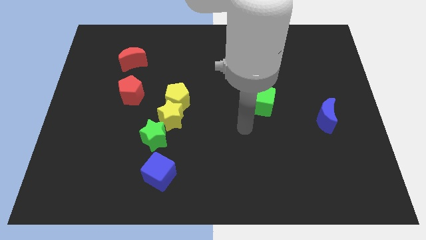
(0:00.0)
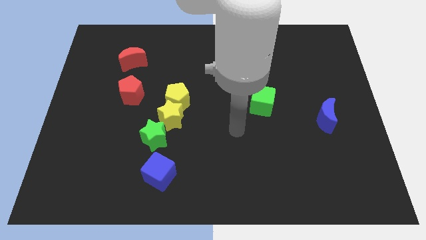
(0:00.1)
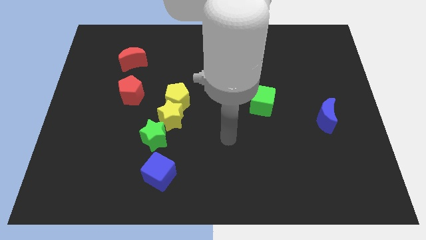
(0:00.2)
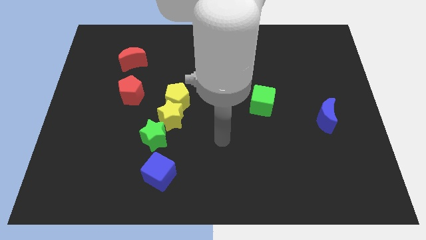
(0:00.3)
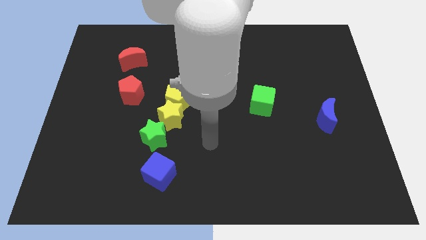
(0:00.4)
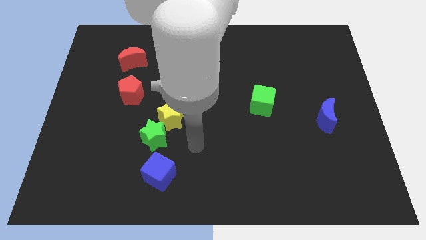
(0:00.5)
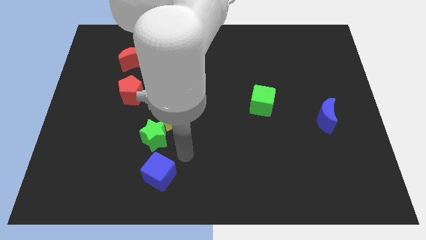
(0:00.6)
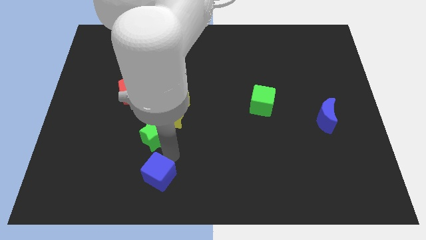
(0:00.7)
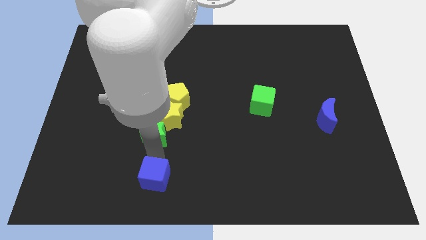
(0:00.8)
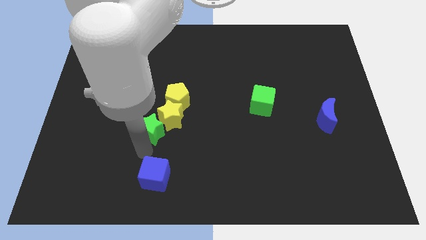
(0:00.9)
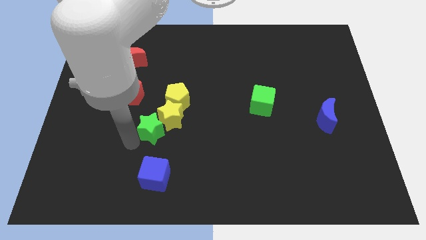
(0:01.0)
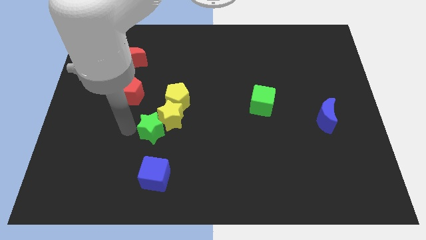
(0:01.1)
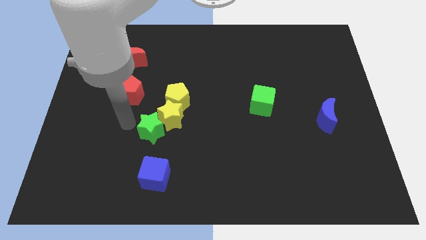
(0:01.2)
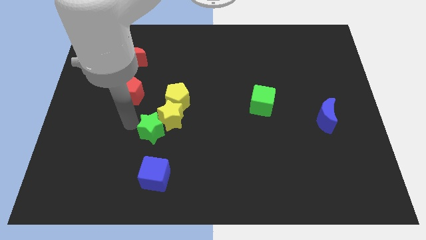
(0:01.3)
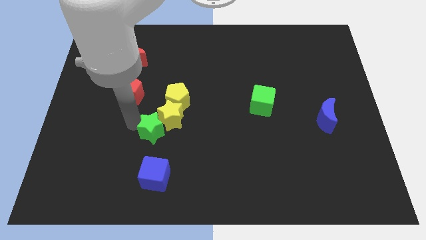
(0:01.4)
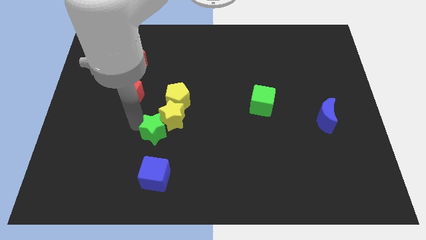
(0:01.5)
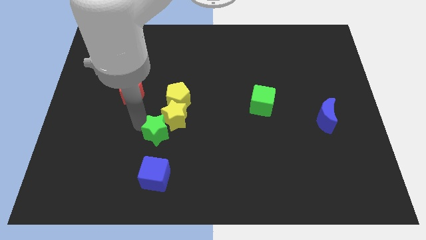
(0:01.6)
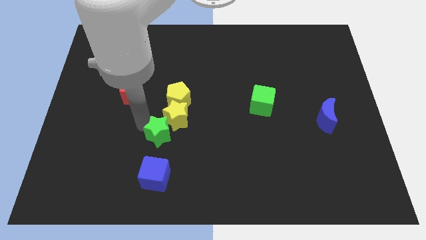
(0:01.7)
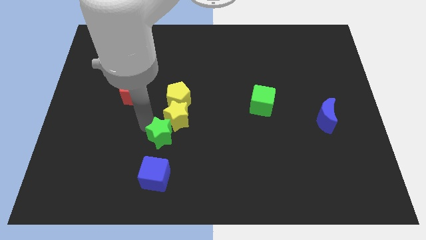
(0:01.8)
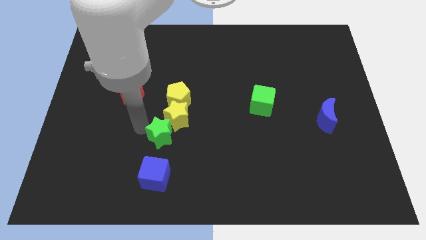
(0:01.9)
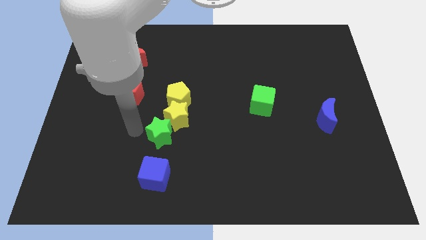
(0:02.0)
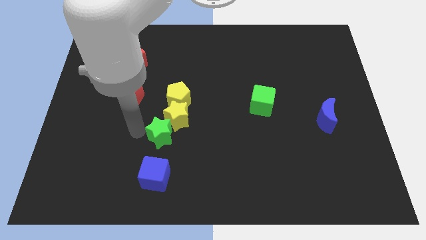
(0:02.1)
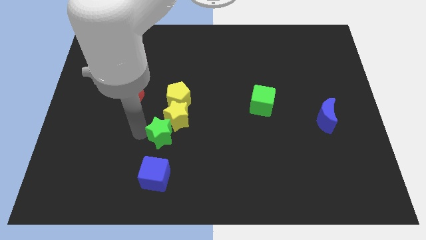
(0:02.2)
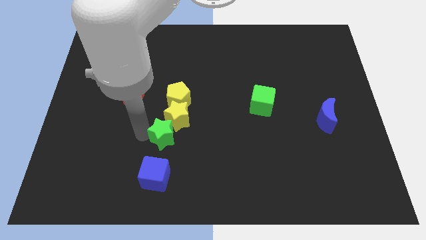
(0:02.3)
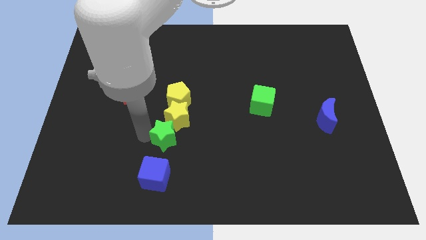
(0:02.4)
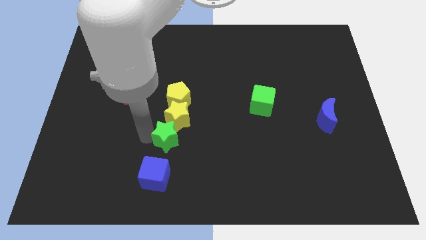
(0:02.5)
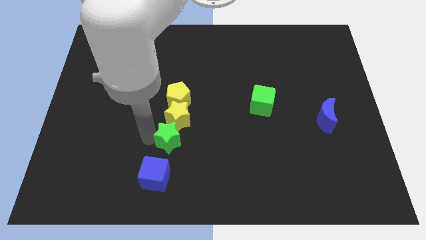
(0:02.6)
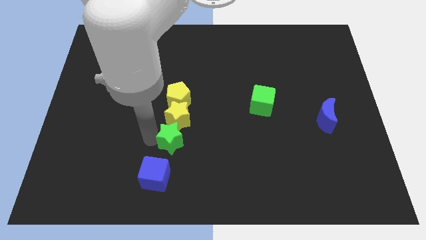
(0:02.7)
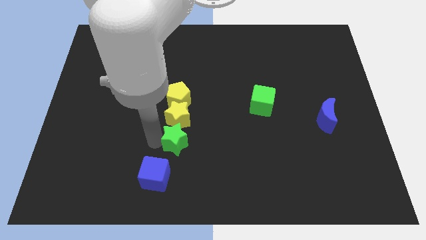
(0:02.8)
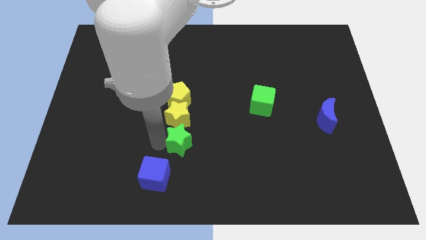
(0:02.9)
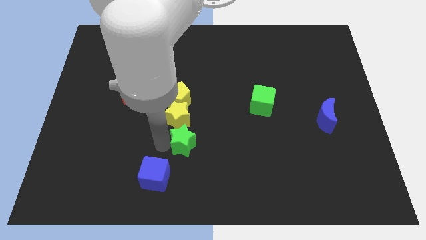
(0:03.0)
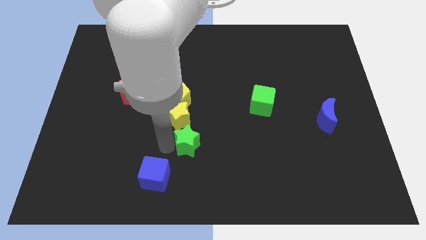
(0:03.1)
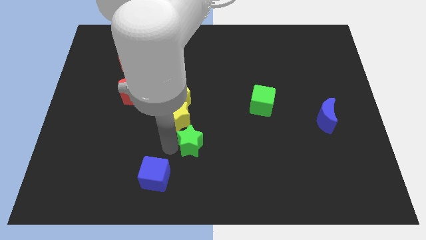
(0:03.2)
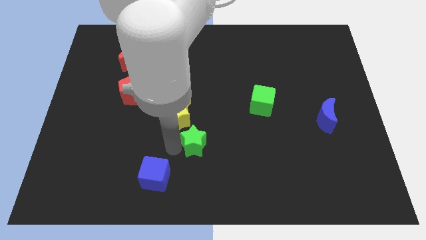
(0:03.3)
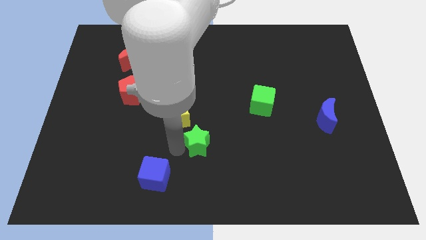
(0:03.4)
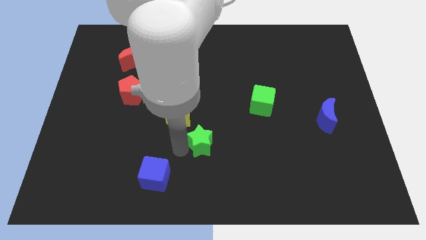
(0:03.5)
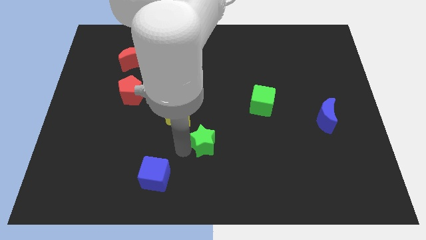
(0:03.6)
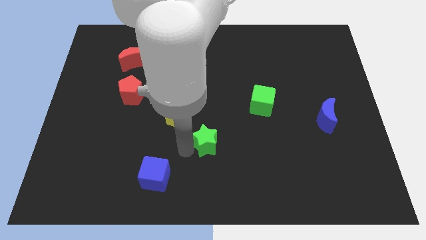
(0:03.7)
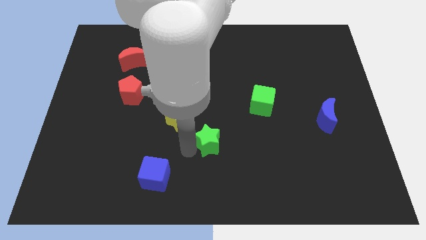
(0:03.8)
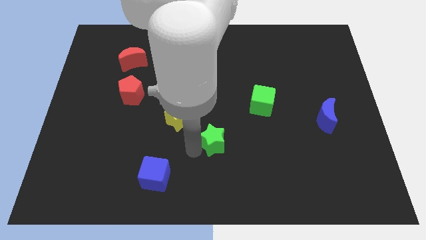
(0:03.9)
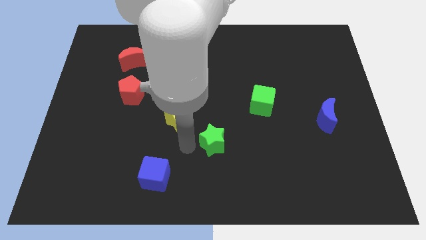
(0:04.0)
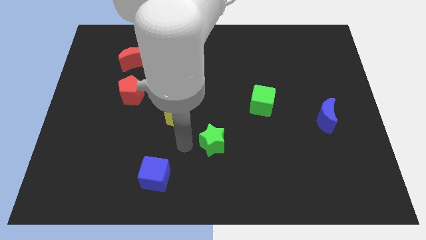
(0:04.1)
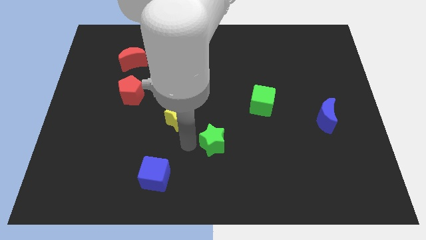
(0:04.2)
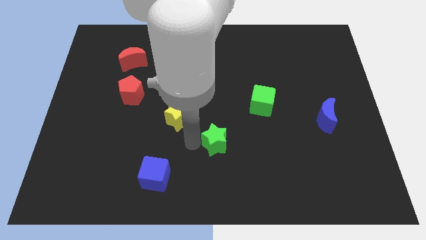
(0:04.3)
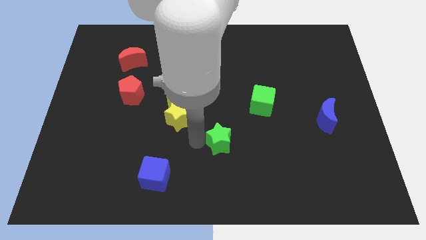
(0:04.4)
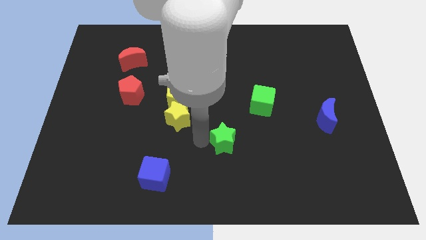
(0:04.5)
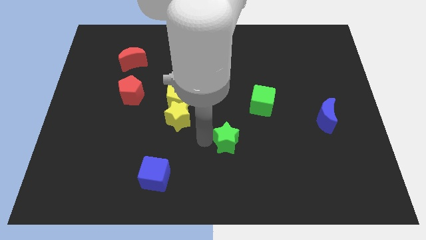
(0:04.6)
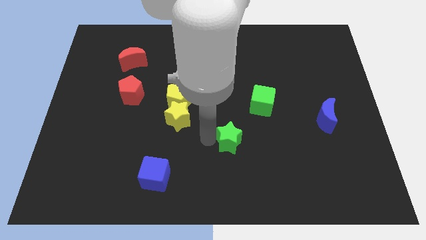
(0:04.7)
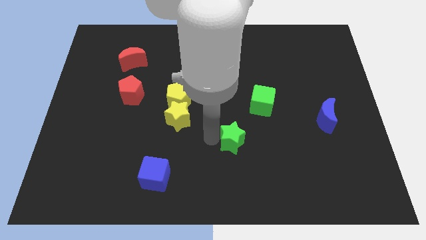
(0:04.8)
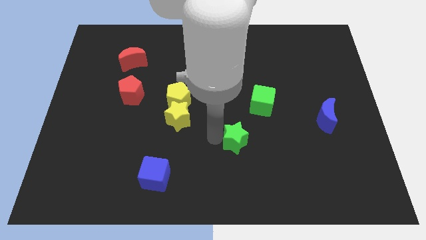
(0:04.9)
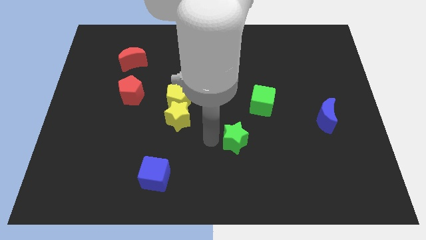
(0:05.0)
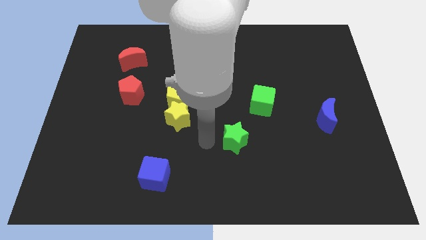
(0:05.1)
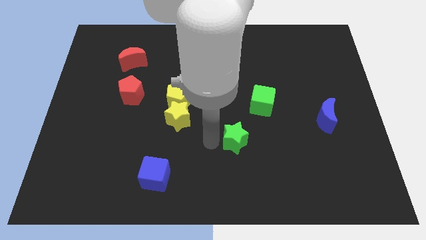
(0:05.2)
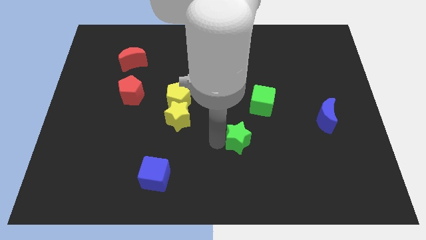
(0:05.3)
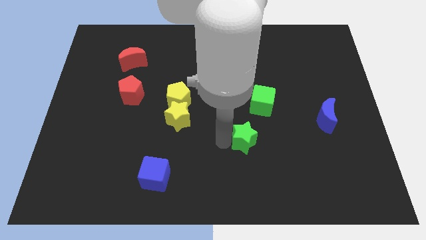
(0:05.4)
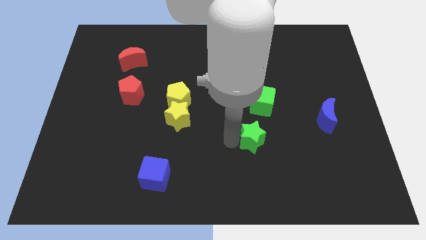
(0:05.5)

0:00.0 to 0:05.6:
push the green star to the right

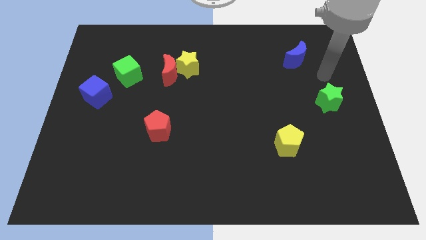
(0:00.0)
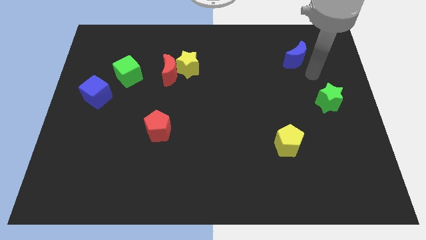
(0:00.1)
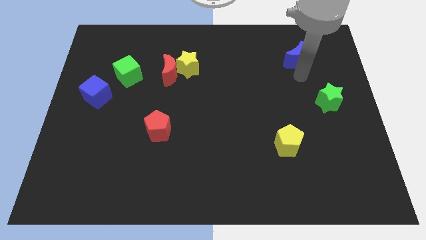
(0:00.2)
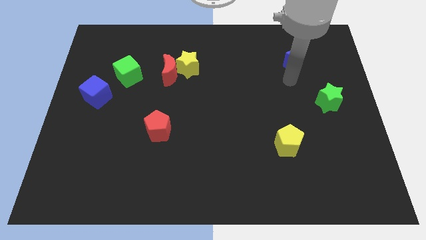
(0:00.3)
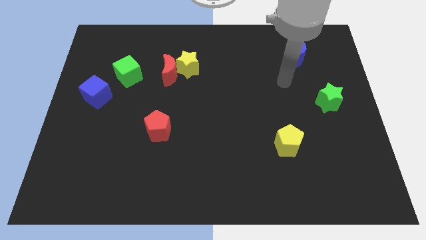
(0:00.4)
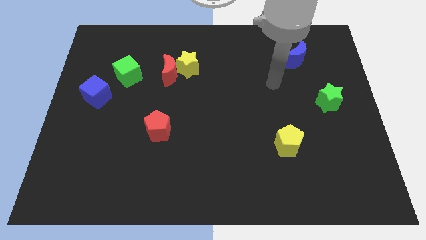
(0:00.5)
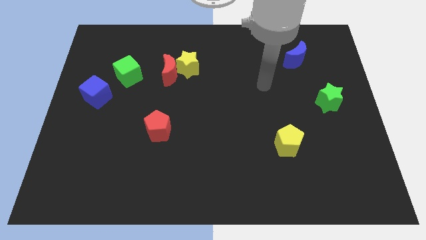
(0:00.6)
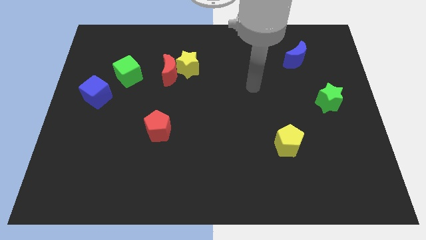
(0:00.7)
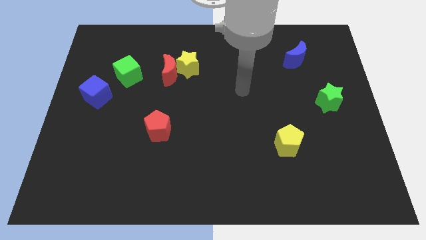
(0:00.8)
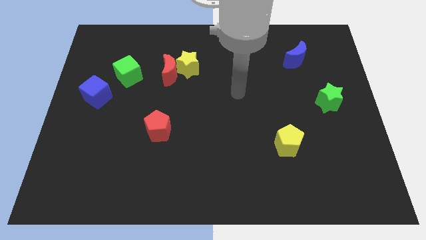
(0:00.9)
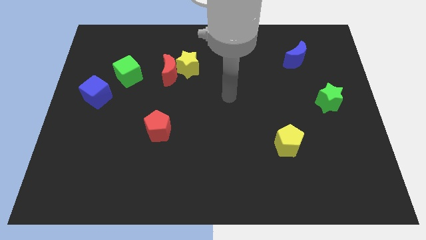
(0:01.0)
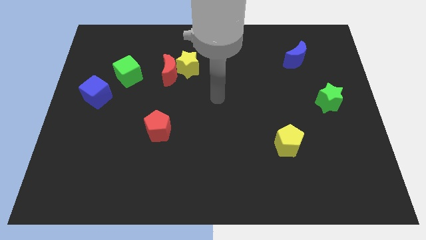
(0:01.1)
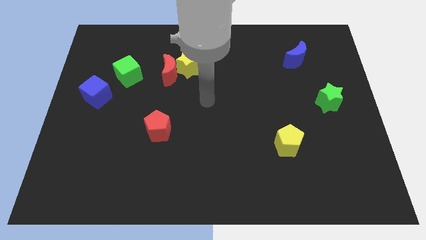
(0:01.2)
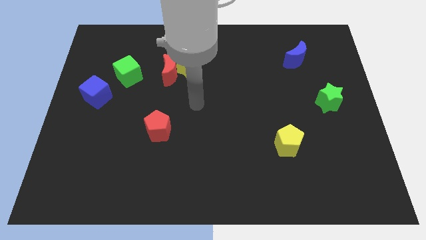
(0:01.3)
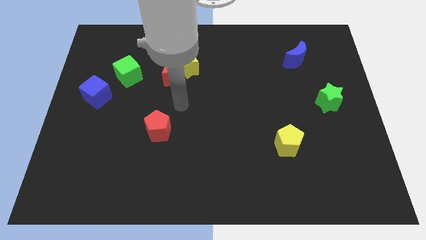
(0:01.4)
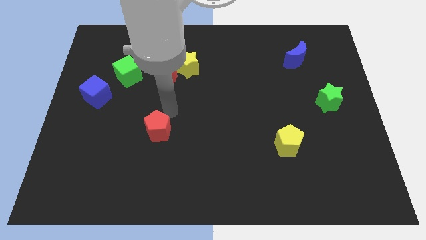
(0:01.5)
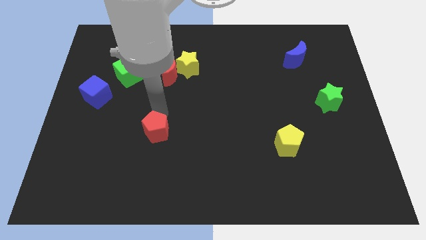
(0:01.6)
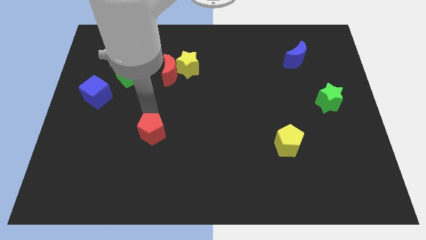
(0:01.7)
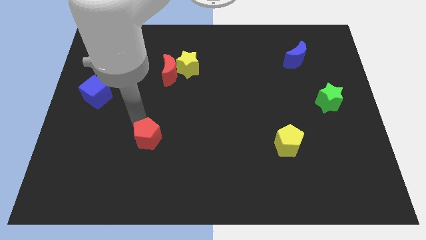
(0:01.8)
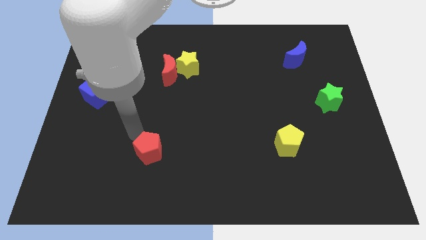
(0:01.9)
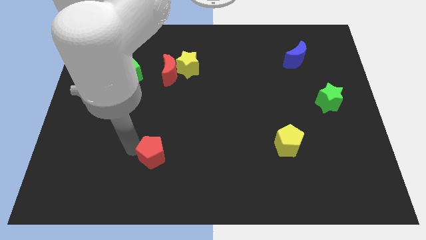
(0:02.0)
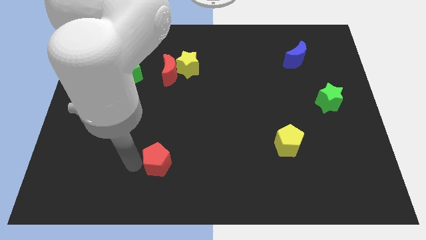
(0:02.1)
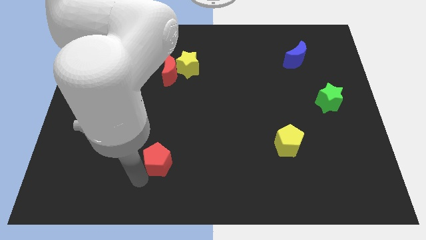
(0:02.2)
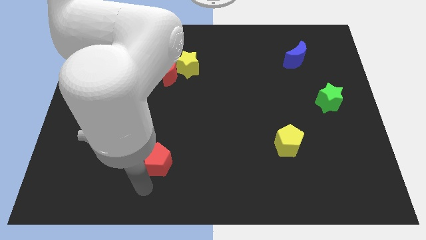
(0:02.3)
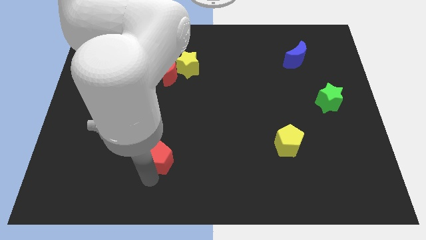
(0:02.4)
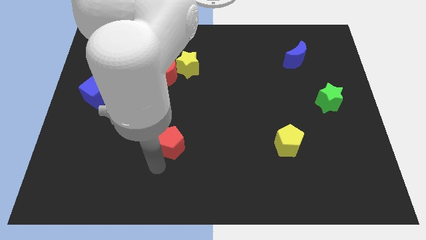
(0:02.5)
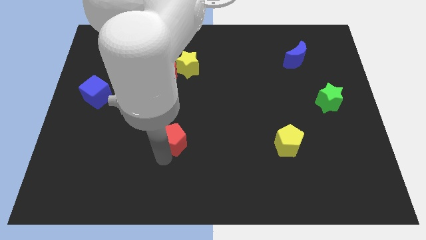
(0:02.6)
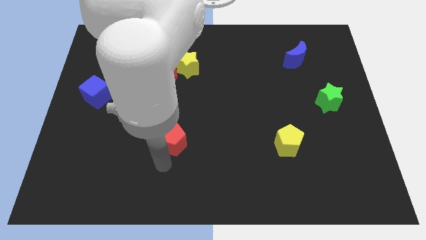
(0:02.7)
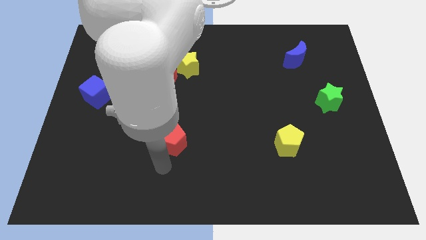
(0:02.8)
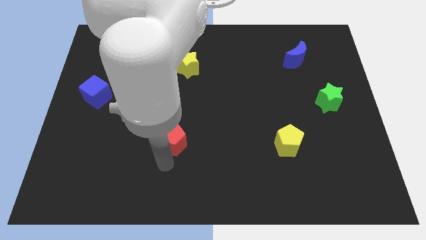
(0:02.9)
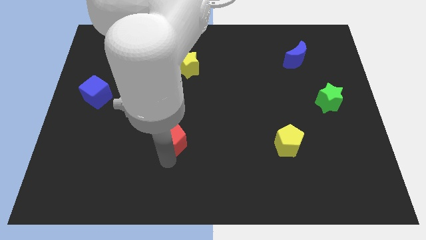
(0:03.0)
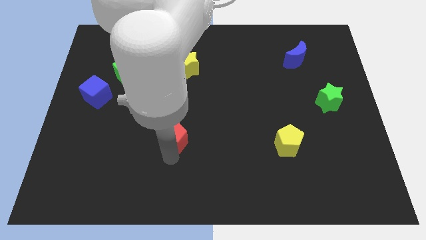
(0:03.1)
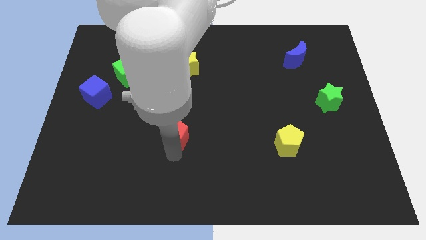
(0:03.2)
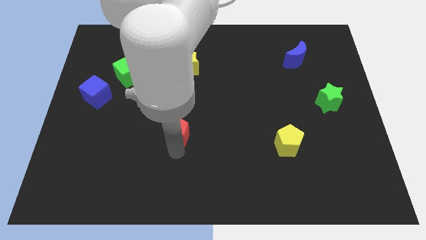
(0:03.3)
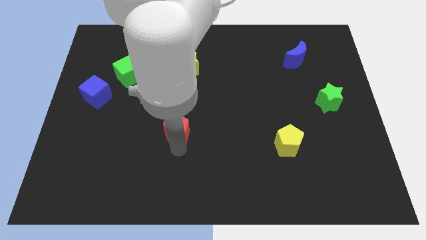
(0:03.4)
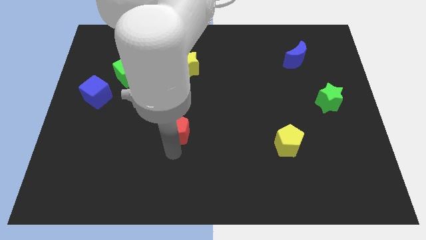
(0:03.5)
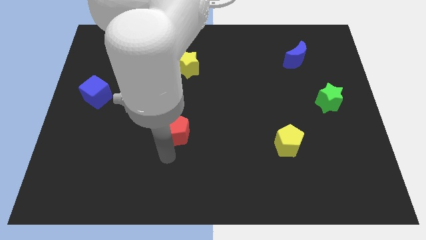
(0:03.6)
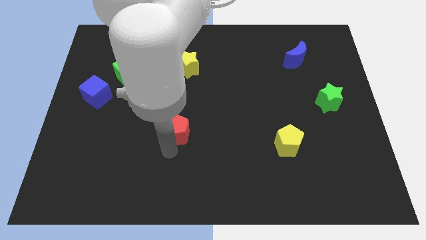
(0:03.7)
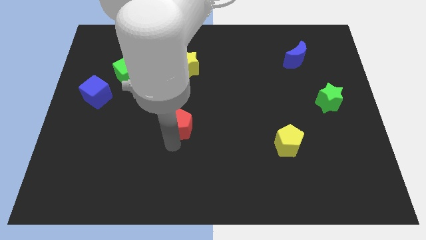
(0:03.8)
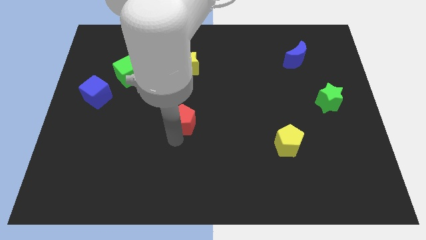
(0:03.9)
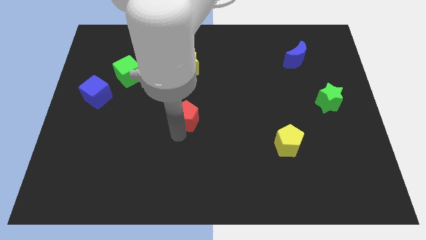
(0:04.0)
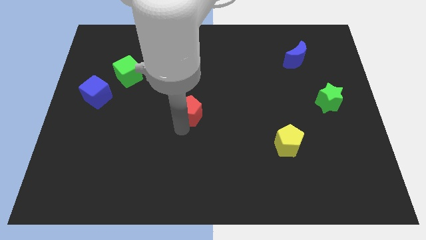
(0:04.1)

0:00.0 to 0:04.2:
slide the red pentagon diagonally up and right somewhat
